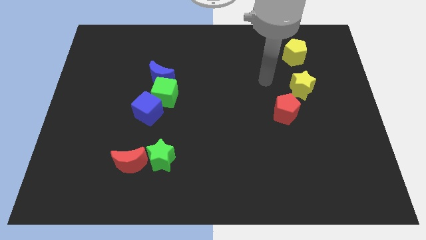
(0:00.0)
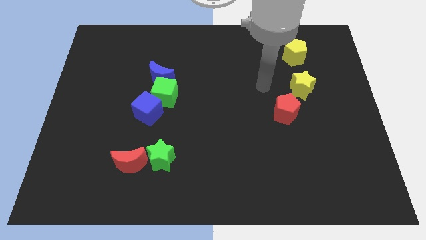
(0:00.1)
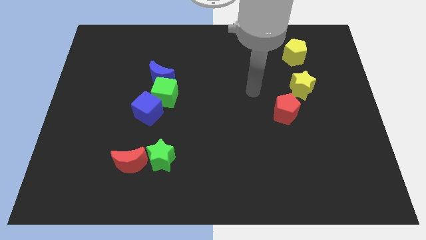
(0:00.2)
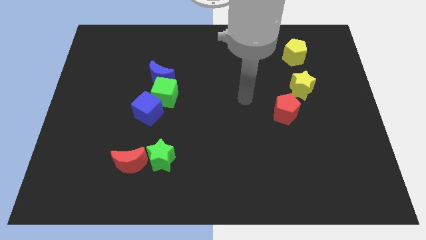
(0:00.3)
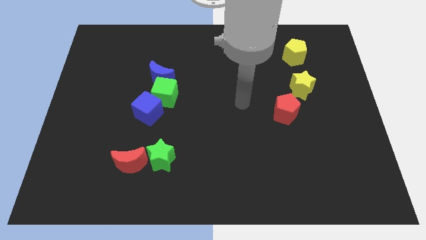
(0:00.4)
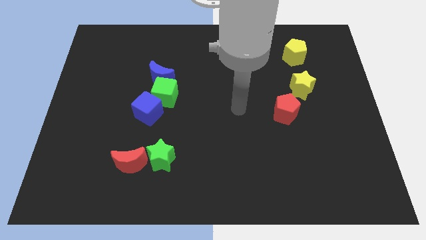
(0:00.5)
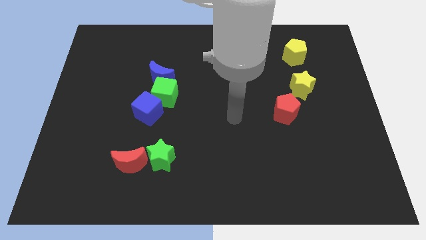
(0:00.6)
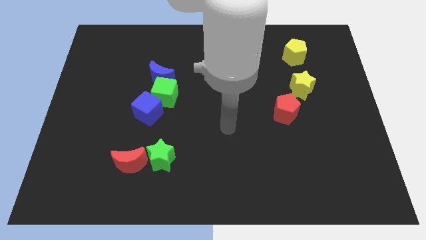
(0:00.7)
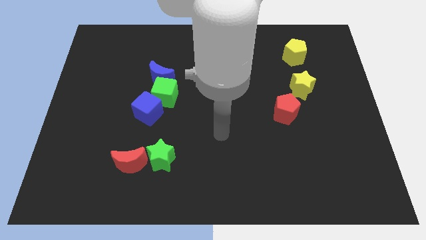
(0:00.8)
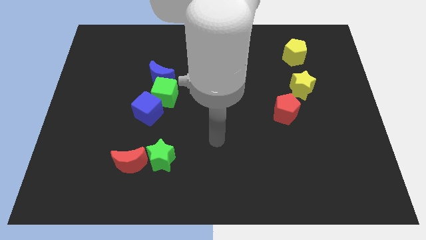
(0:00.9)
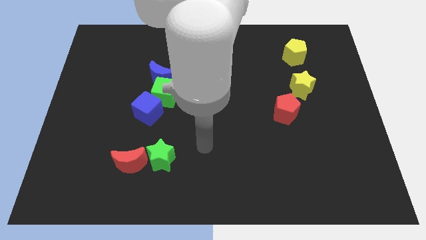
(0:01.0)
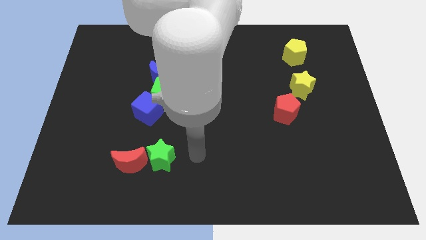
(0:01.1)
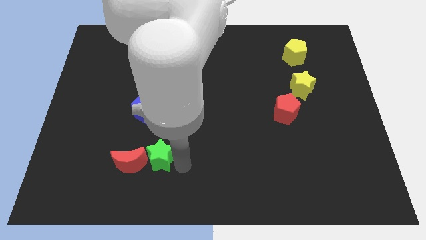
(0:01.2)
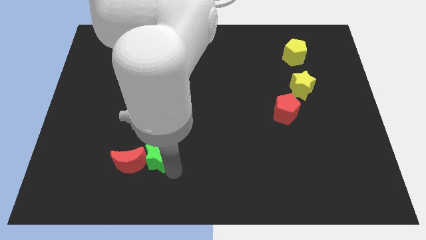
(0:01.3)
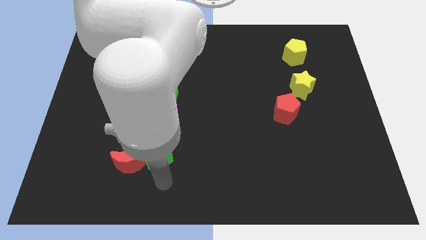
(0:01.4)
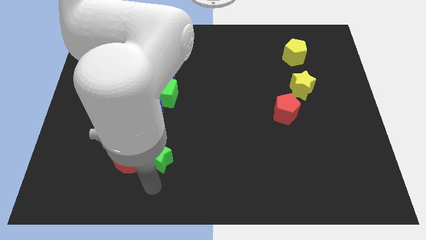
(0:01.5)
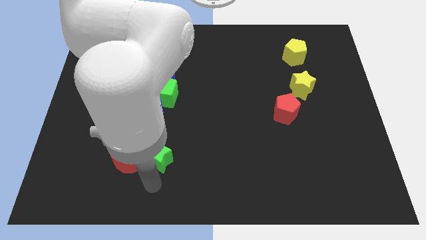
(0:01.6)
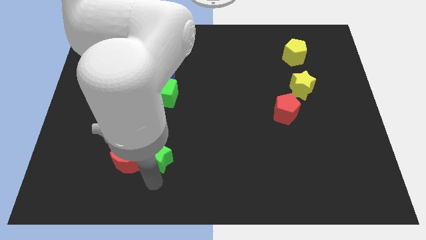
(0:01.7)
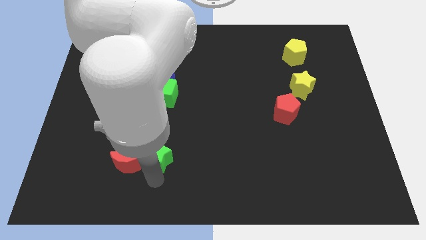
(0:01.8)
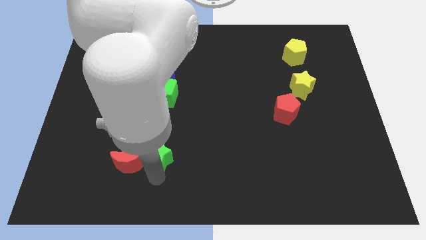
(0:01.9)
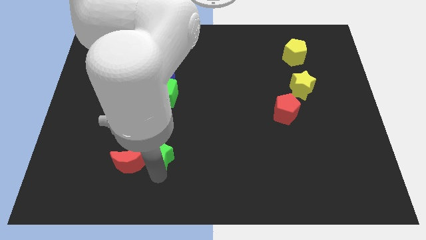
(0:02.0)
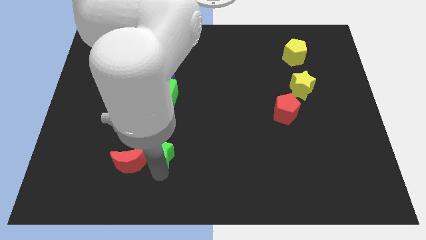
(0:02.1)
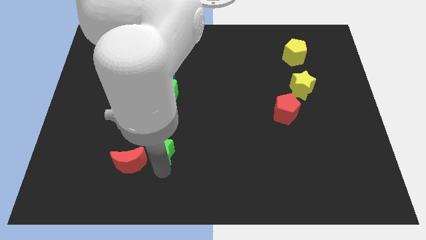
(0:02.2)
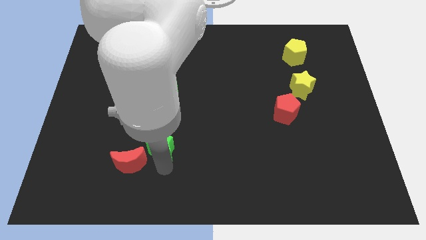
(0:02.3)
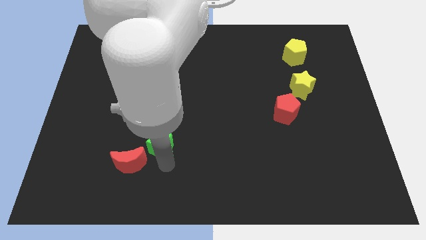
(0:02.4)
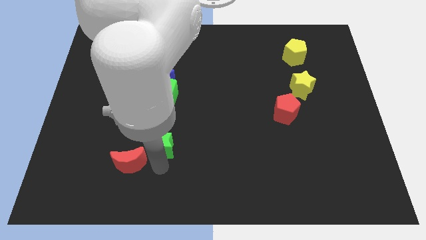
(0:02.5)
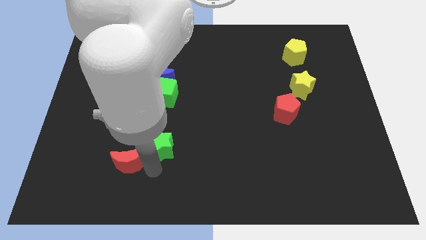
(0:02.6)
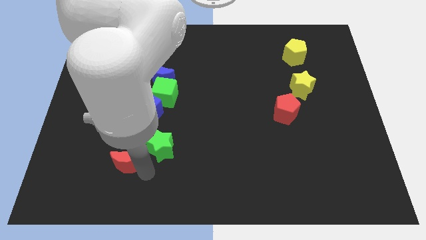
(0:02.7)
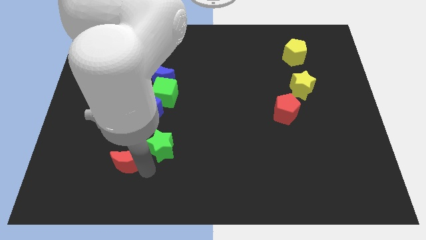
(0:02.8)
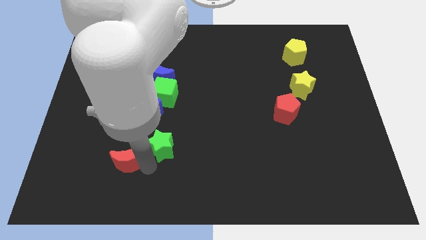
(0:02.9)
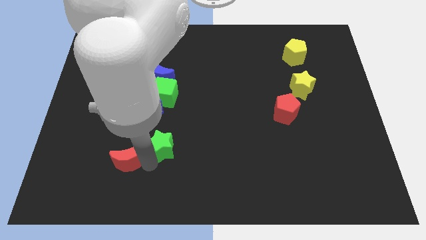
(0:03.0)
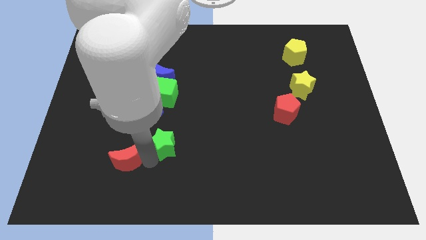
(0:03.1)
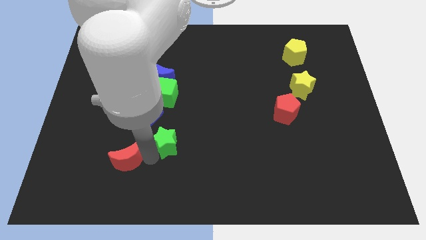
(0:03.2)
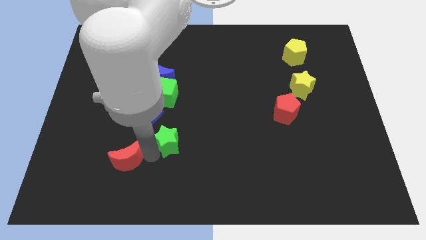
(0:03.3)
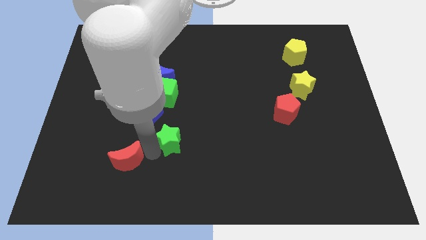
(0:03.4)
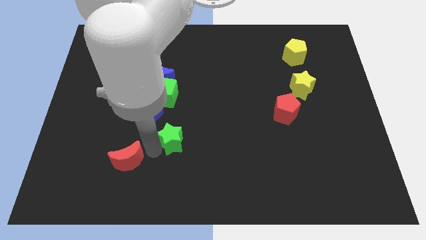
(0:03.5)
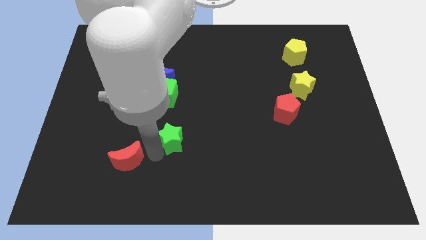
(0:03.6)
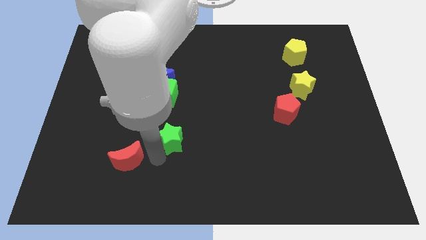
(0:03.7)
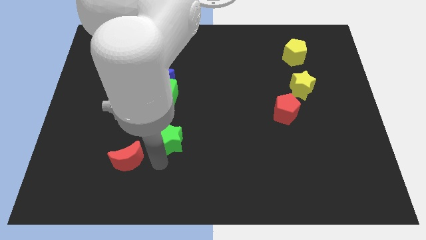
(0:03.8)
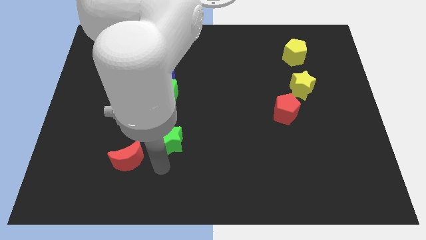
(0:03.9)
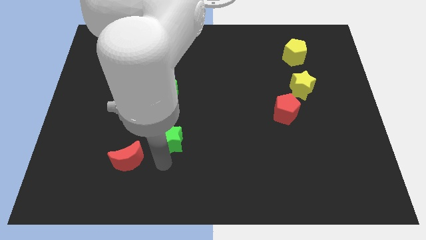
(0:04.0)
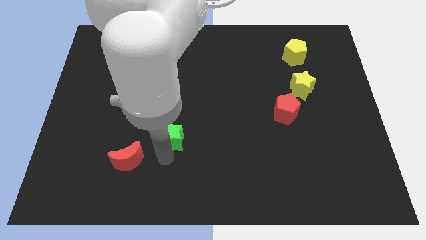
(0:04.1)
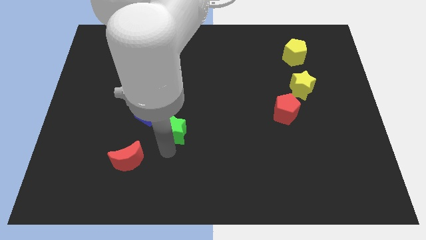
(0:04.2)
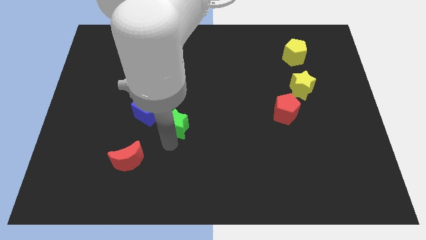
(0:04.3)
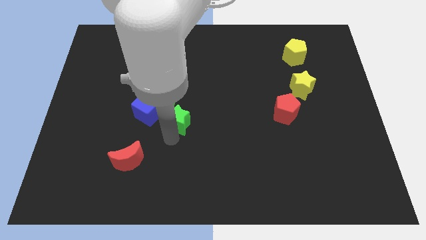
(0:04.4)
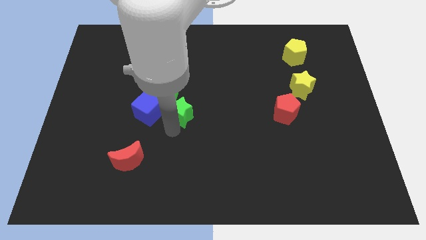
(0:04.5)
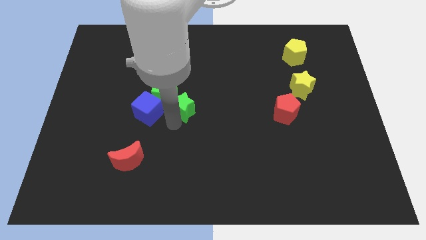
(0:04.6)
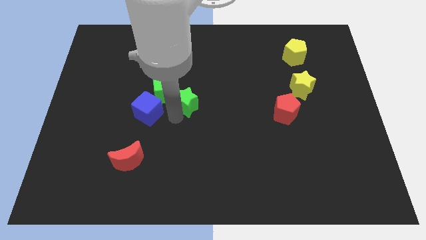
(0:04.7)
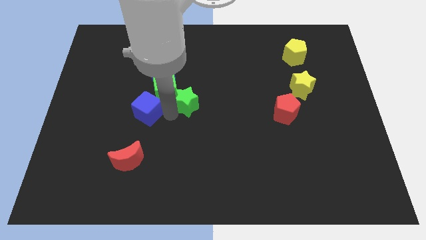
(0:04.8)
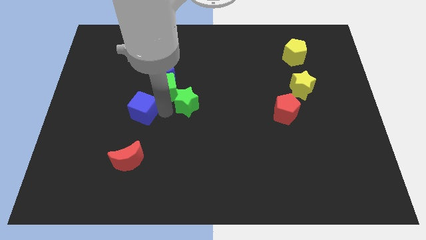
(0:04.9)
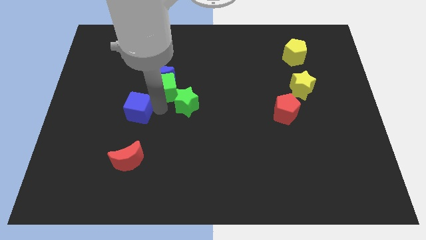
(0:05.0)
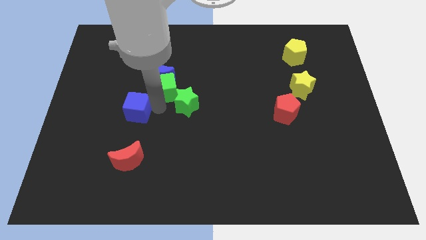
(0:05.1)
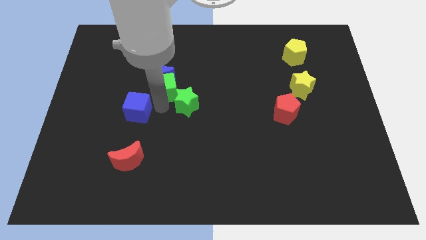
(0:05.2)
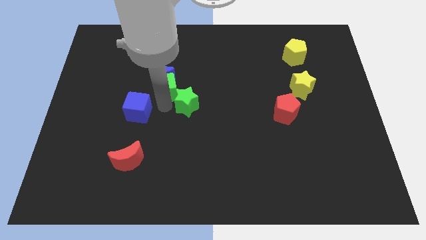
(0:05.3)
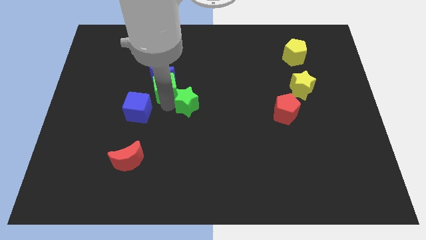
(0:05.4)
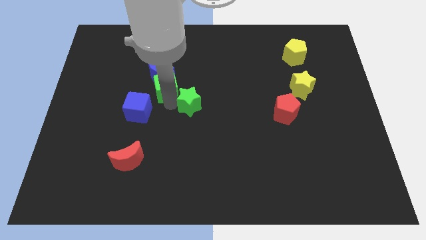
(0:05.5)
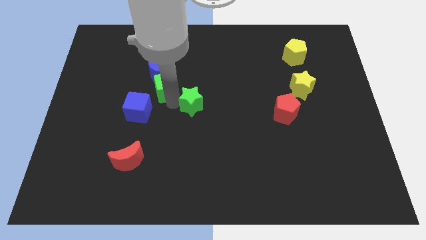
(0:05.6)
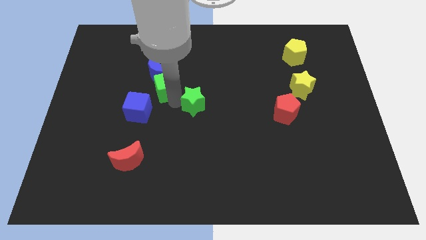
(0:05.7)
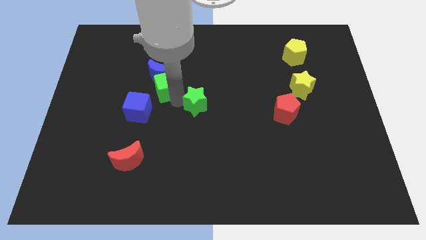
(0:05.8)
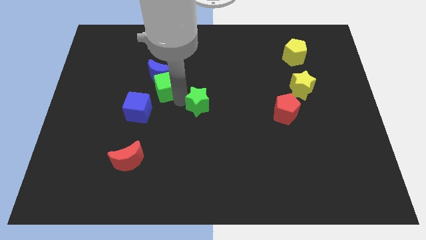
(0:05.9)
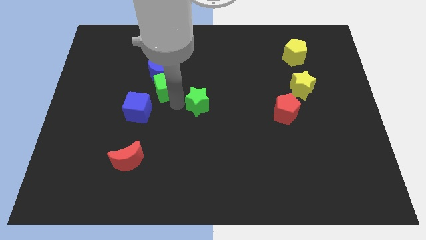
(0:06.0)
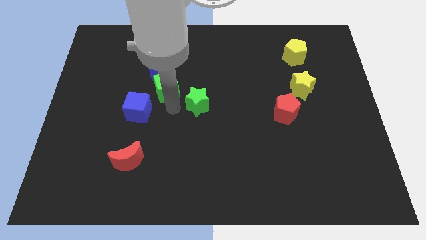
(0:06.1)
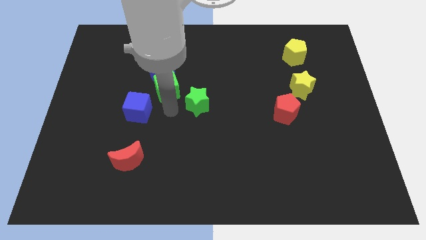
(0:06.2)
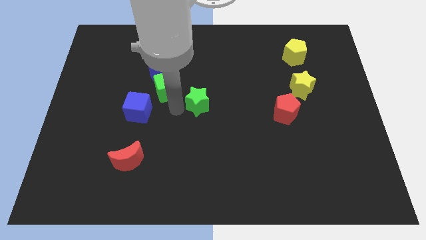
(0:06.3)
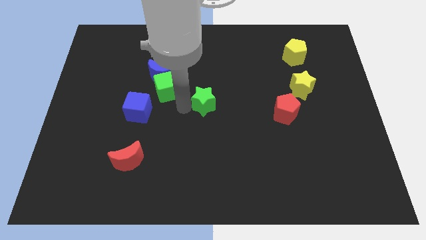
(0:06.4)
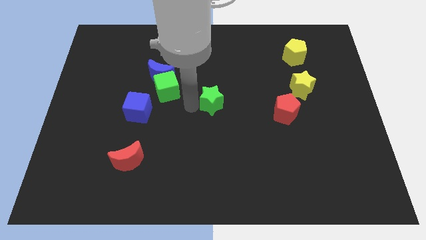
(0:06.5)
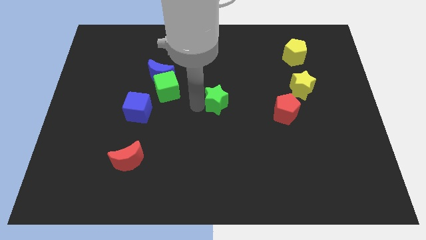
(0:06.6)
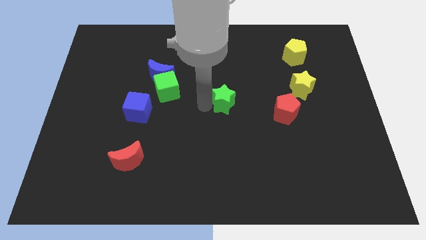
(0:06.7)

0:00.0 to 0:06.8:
slide the green star up and then right

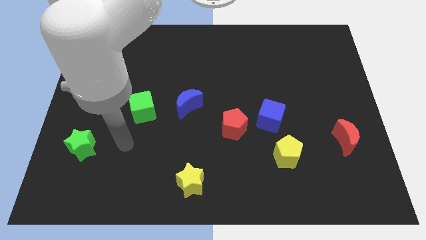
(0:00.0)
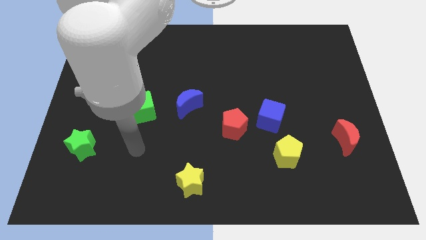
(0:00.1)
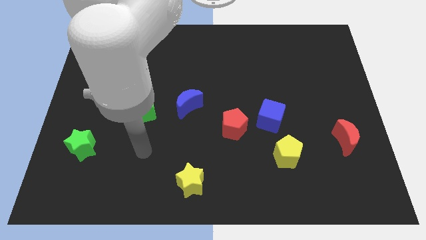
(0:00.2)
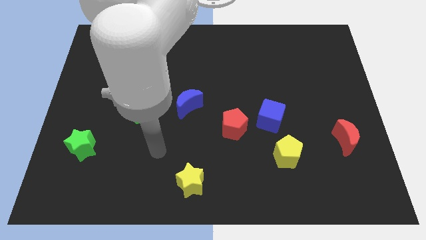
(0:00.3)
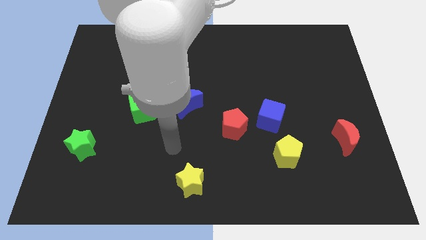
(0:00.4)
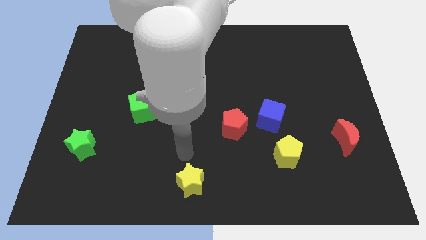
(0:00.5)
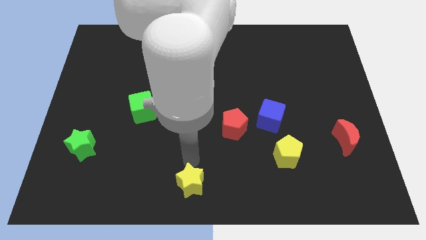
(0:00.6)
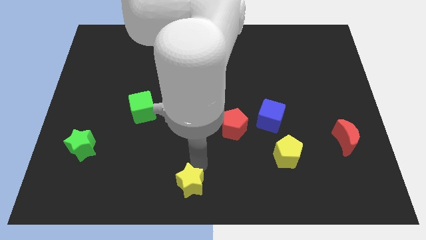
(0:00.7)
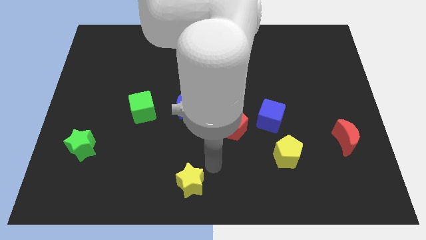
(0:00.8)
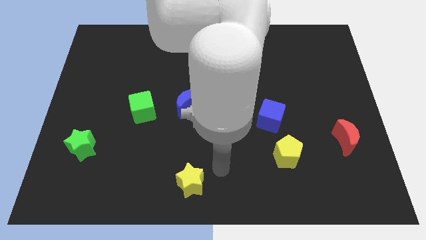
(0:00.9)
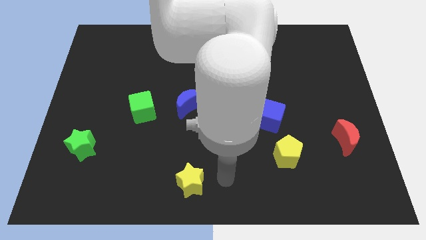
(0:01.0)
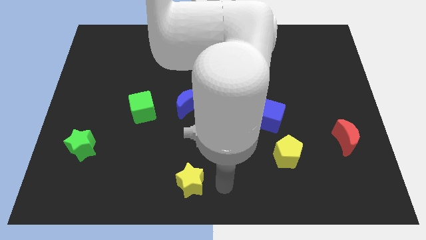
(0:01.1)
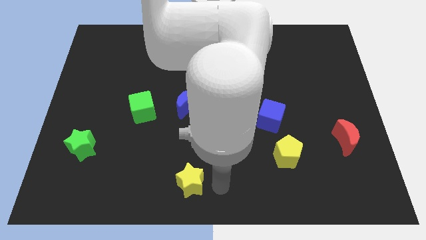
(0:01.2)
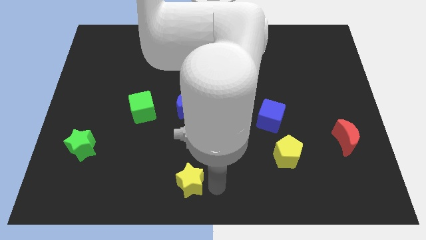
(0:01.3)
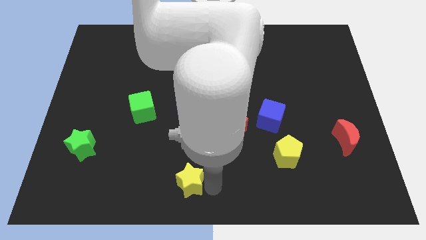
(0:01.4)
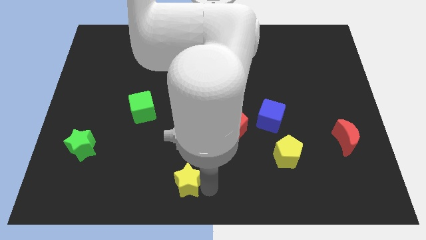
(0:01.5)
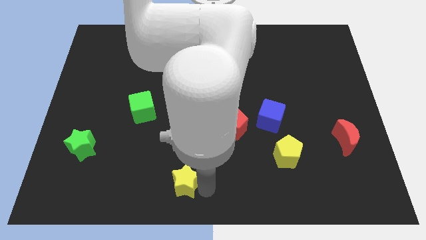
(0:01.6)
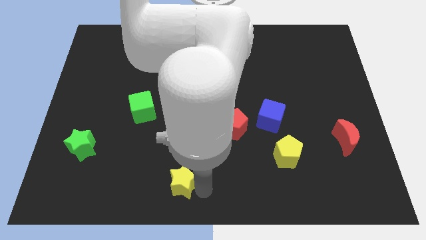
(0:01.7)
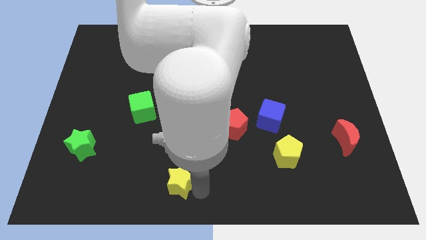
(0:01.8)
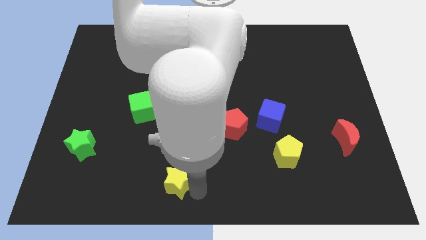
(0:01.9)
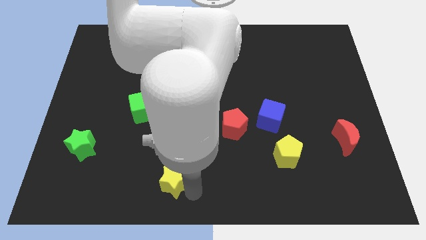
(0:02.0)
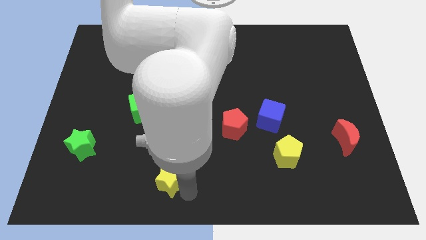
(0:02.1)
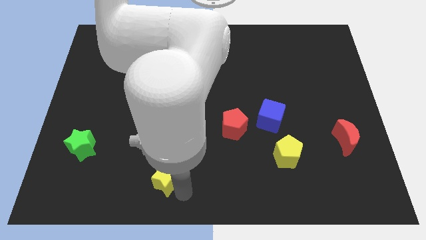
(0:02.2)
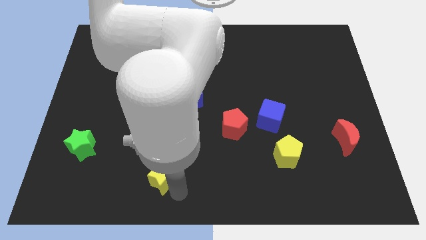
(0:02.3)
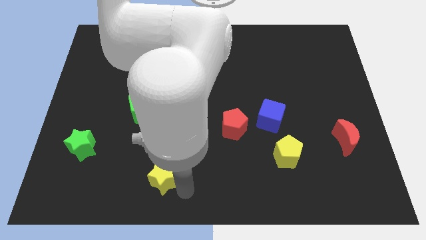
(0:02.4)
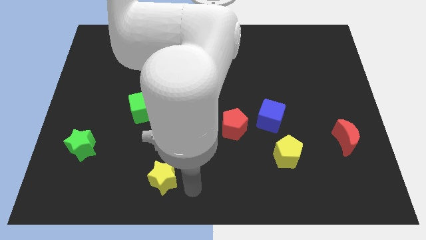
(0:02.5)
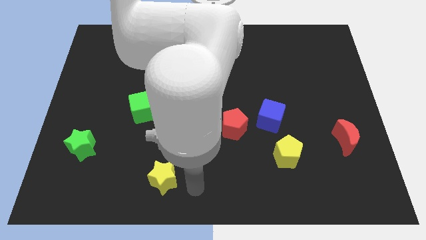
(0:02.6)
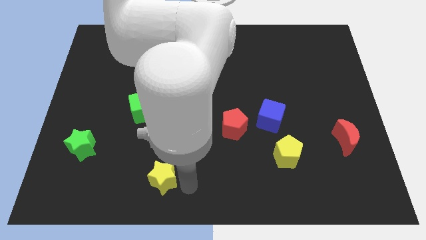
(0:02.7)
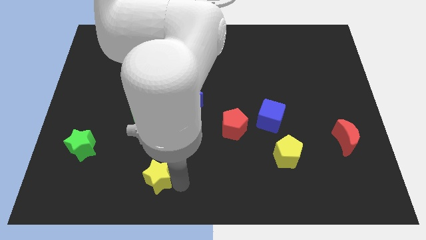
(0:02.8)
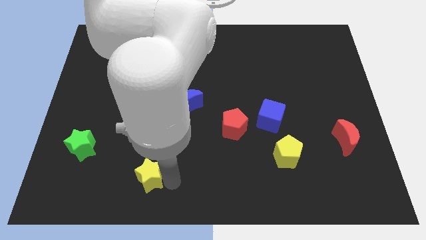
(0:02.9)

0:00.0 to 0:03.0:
slightly push the yellow star left
